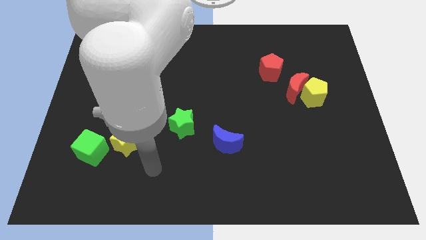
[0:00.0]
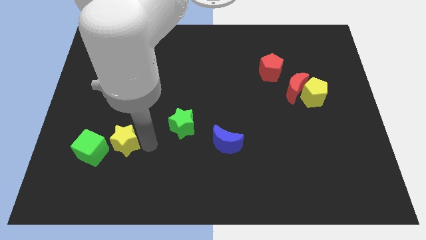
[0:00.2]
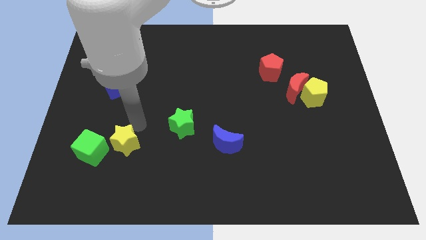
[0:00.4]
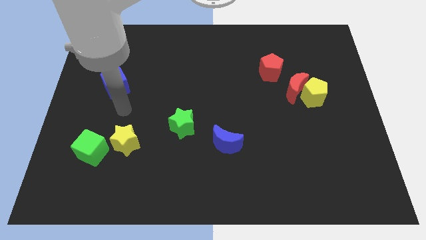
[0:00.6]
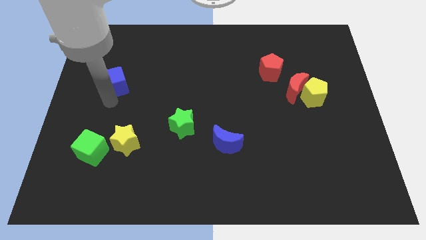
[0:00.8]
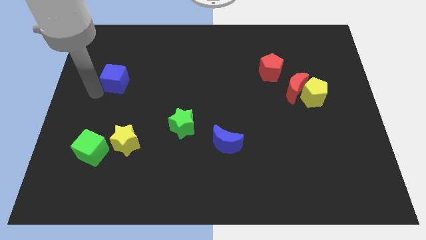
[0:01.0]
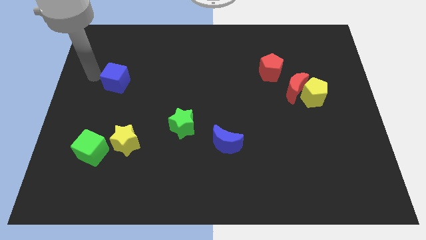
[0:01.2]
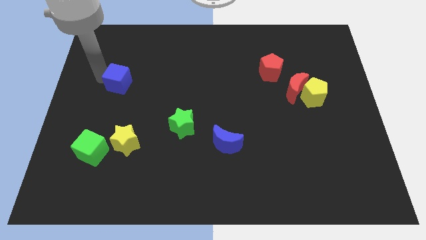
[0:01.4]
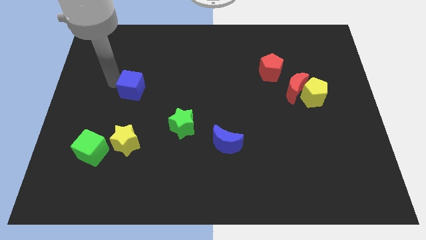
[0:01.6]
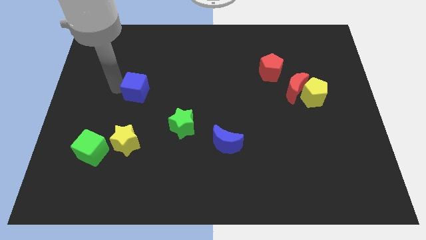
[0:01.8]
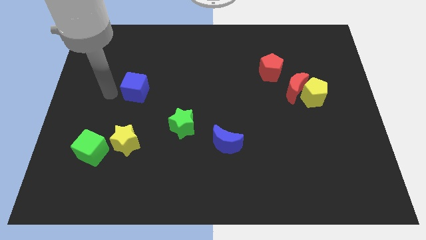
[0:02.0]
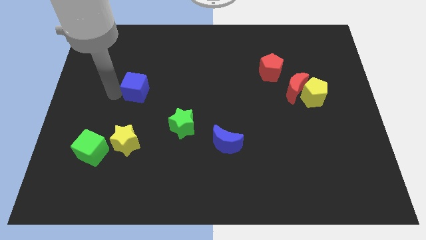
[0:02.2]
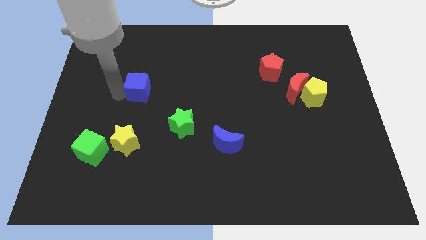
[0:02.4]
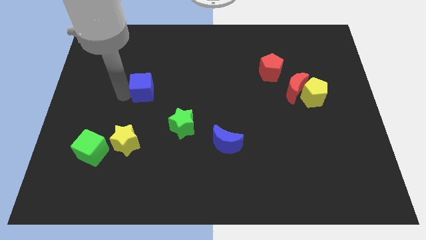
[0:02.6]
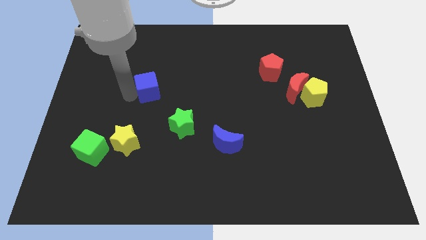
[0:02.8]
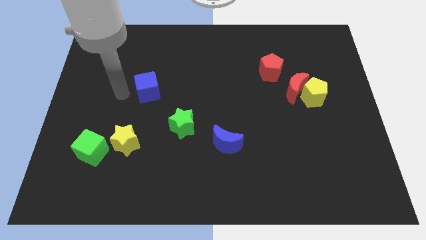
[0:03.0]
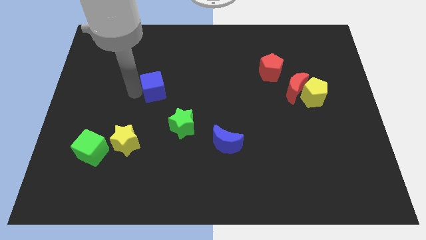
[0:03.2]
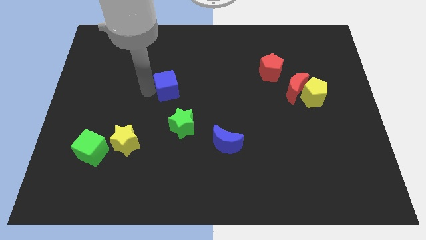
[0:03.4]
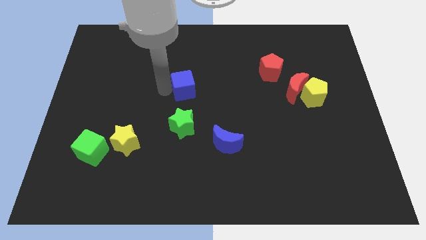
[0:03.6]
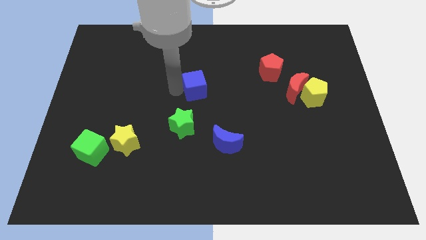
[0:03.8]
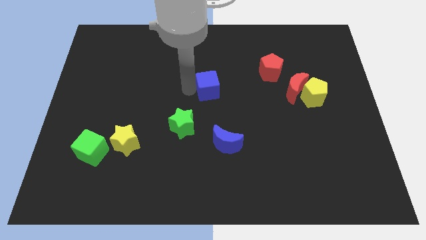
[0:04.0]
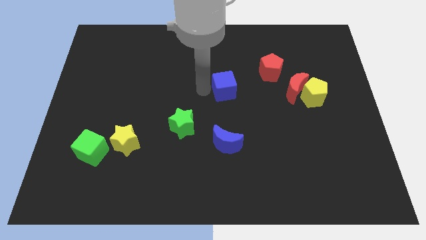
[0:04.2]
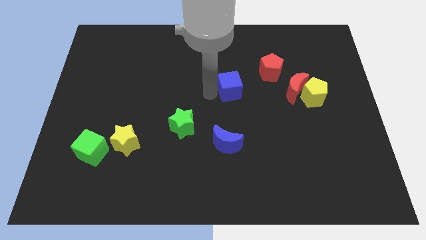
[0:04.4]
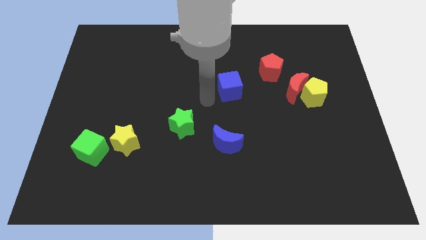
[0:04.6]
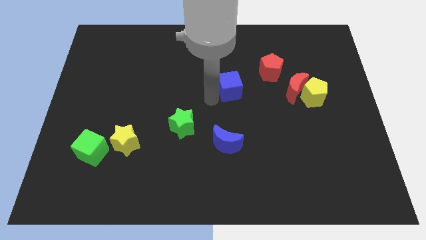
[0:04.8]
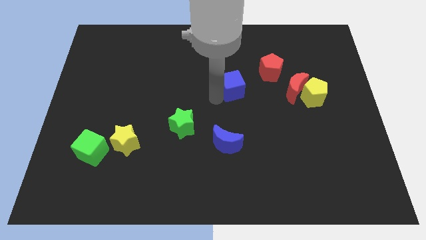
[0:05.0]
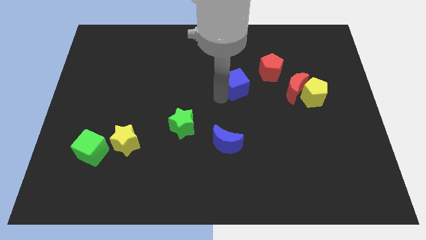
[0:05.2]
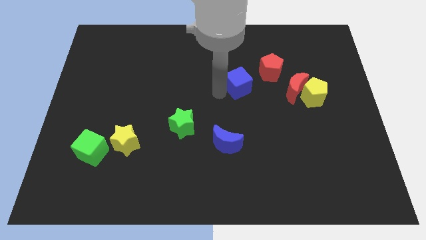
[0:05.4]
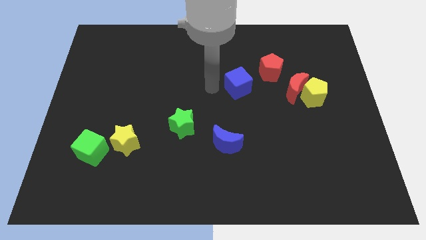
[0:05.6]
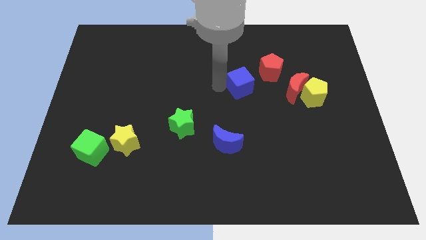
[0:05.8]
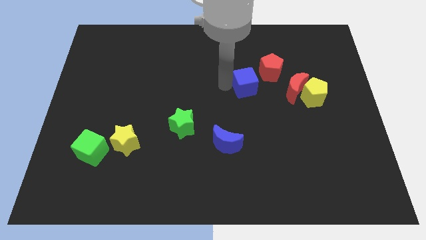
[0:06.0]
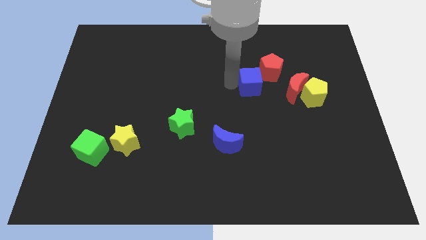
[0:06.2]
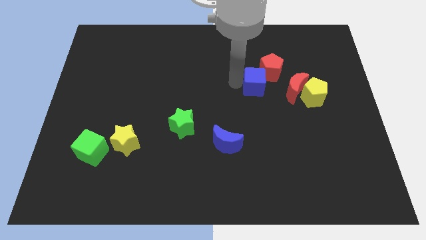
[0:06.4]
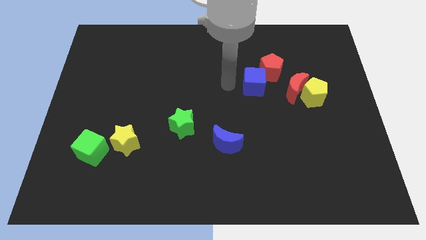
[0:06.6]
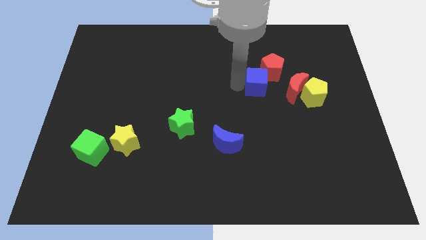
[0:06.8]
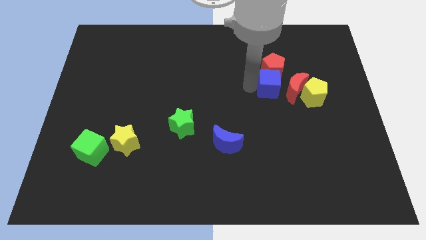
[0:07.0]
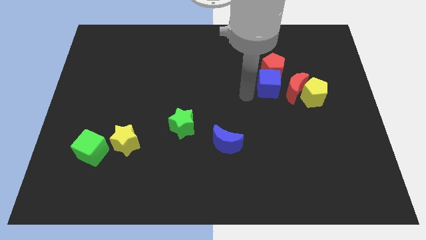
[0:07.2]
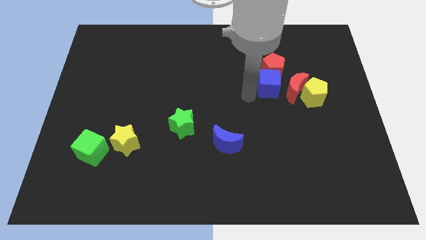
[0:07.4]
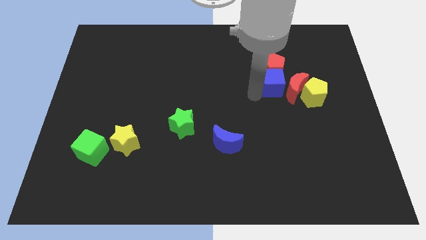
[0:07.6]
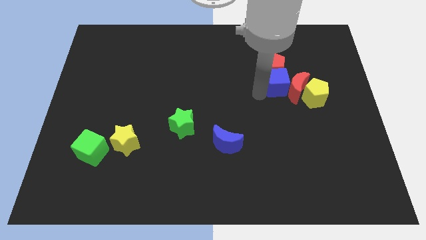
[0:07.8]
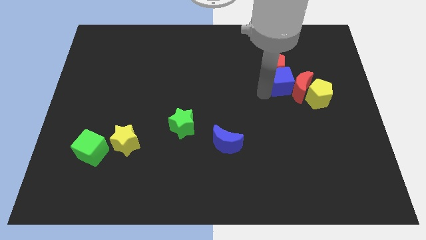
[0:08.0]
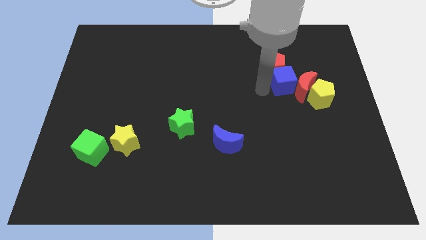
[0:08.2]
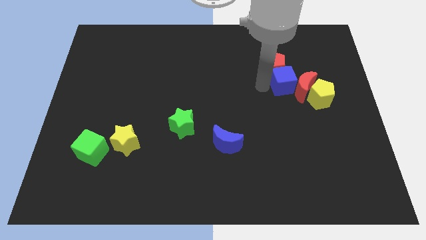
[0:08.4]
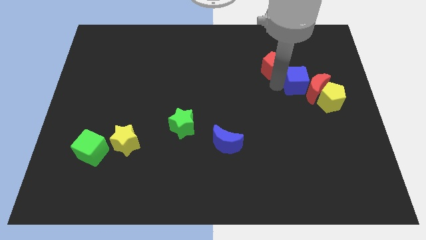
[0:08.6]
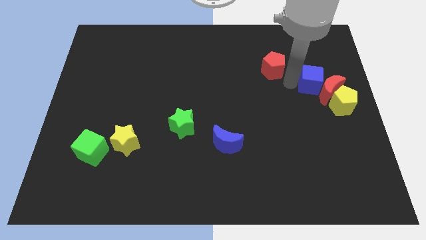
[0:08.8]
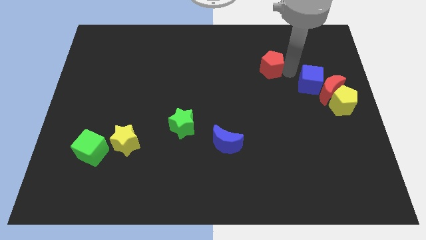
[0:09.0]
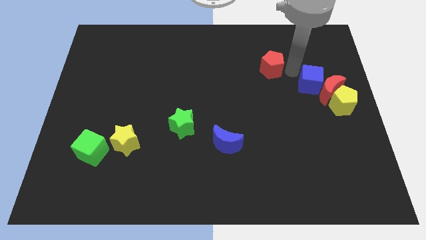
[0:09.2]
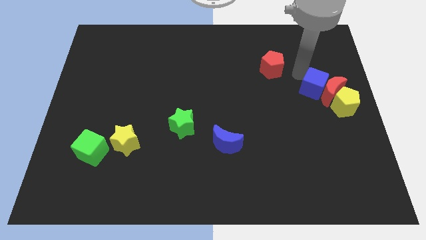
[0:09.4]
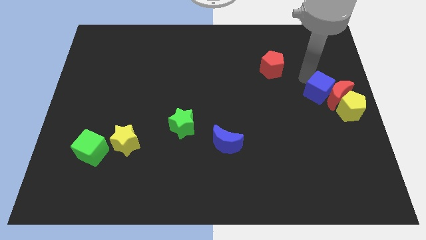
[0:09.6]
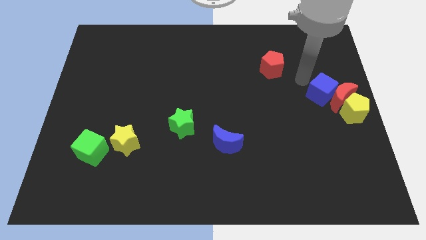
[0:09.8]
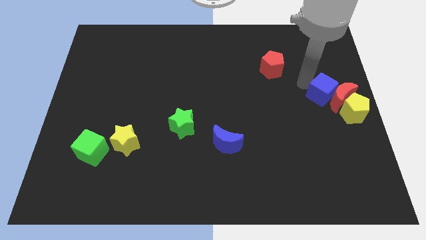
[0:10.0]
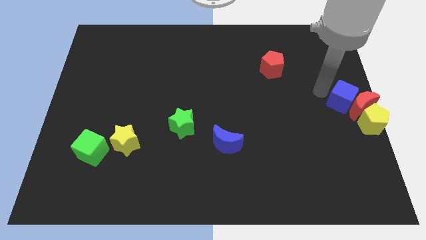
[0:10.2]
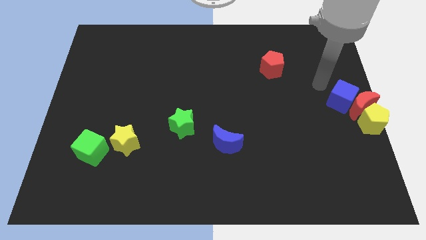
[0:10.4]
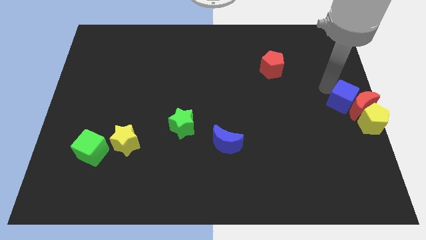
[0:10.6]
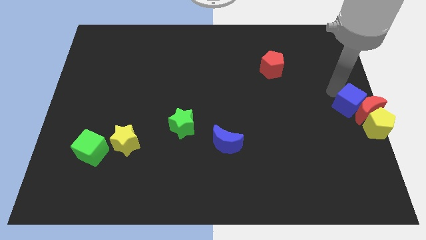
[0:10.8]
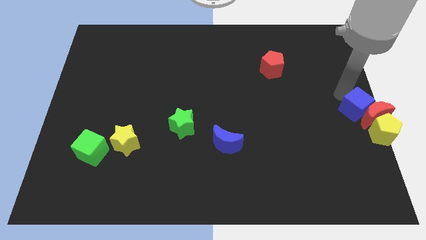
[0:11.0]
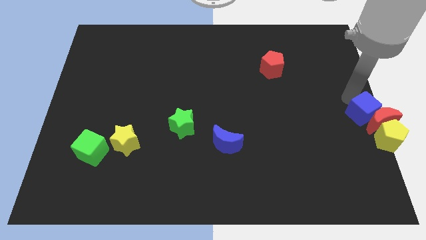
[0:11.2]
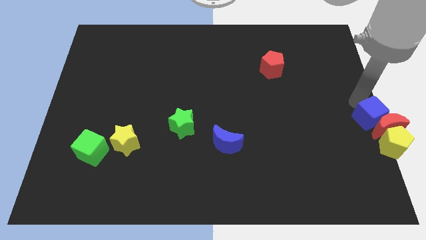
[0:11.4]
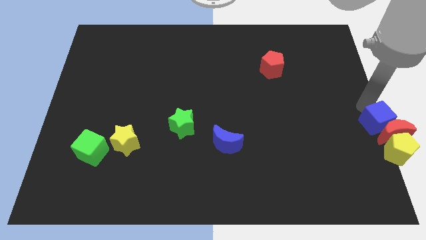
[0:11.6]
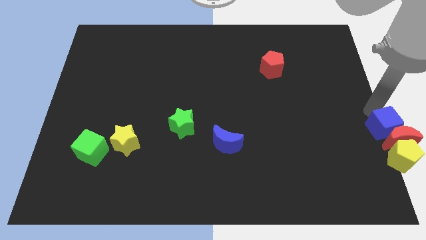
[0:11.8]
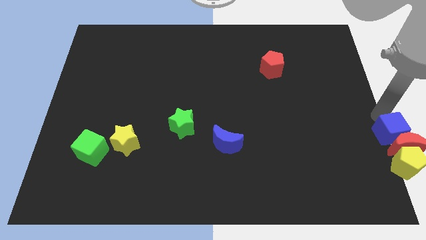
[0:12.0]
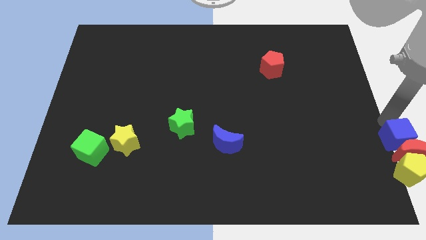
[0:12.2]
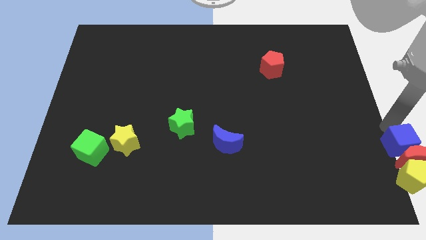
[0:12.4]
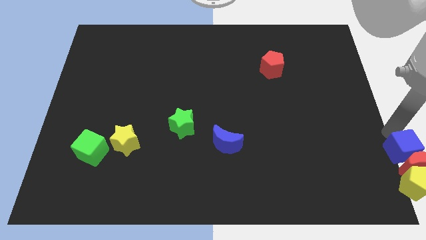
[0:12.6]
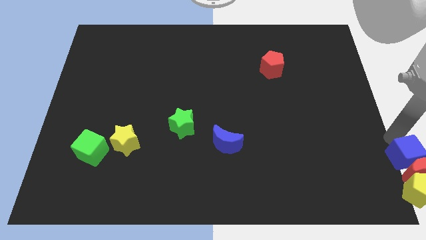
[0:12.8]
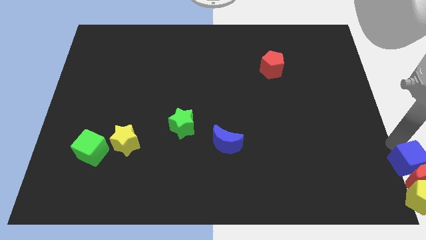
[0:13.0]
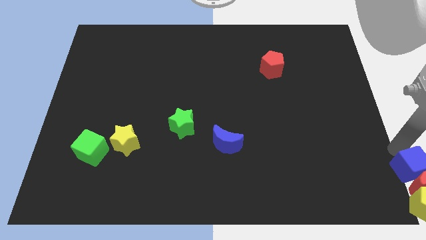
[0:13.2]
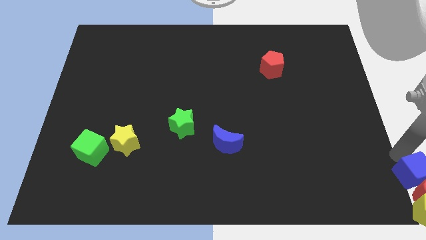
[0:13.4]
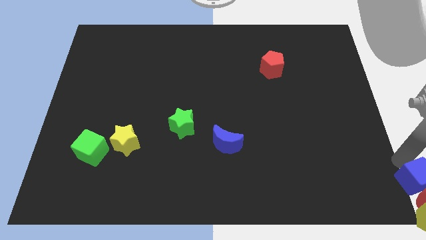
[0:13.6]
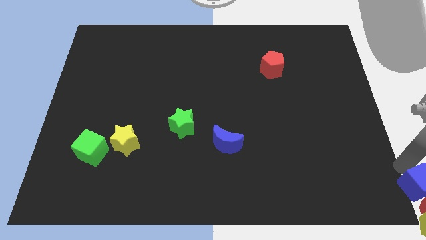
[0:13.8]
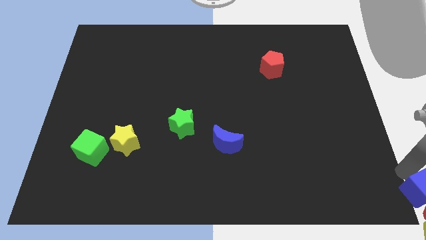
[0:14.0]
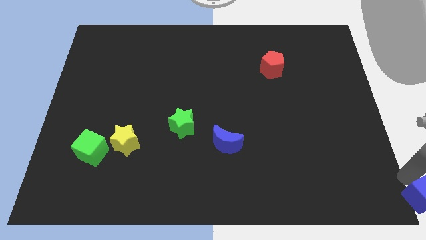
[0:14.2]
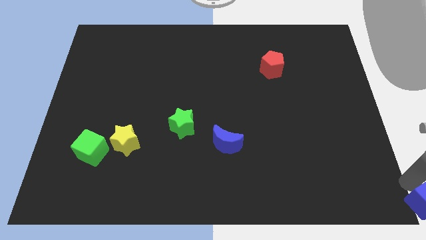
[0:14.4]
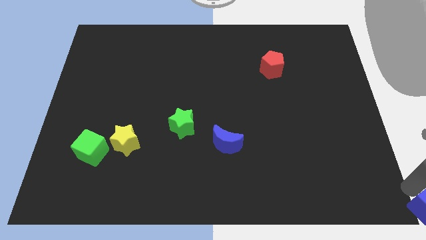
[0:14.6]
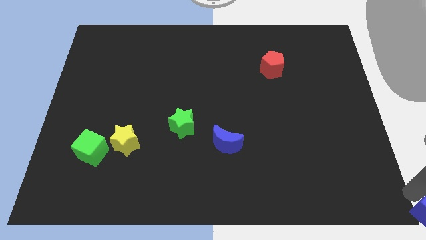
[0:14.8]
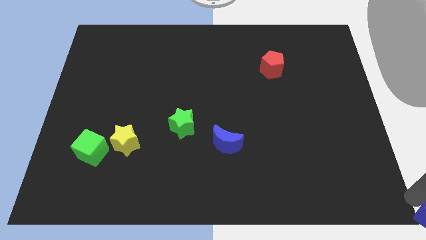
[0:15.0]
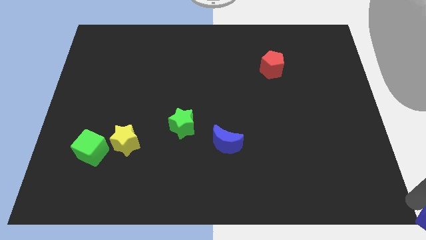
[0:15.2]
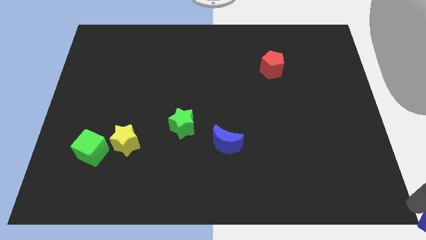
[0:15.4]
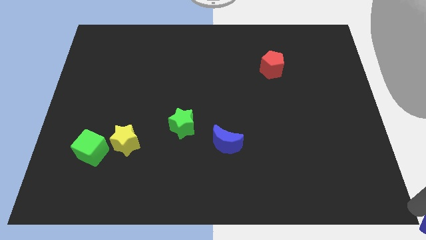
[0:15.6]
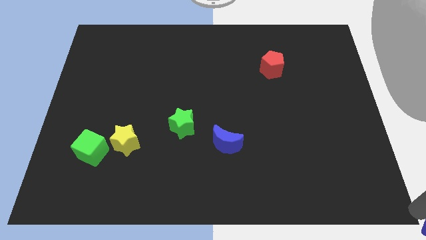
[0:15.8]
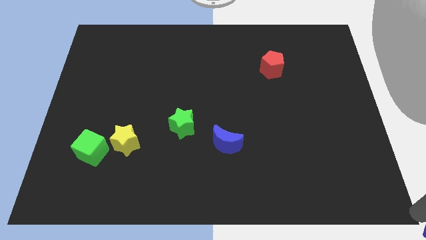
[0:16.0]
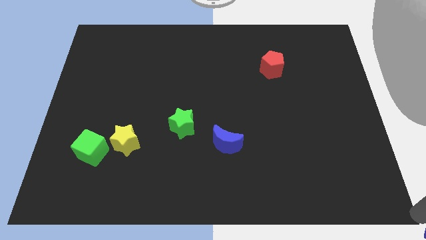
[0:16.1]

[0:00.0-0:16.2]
push the blue cube to the yellow pentagon
